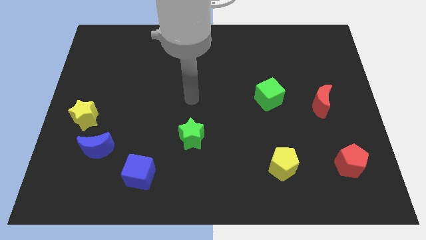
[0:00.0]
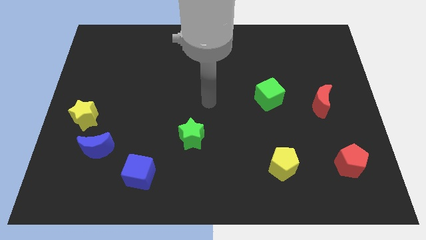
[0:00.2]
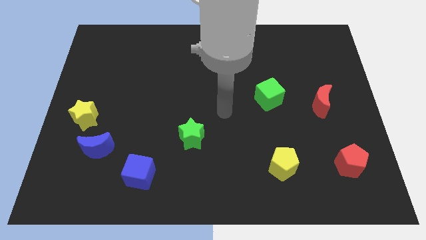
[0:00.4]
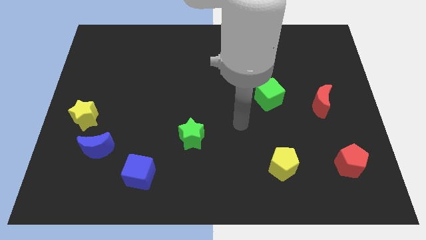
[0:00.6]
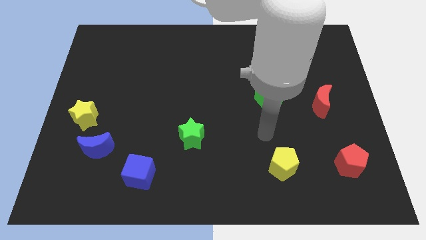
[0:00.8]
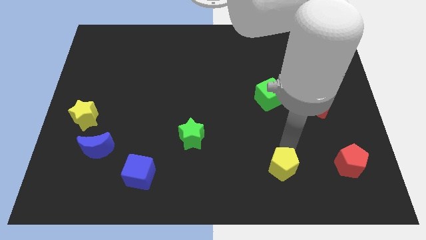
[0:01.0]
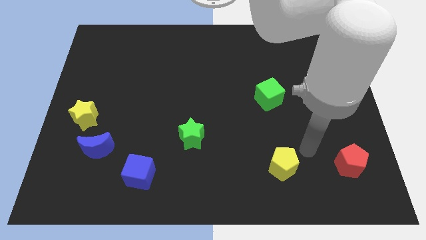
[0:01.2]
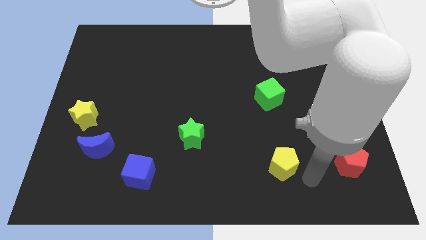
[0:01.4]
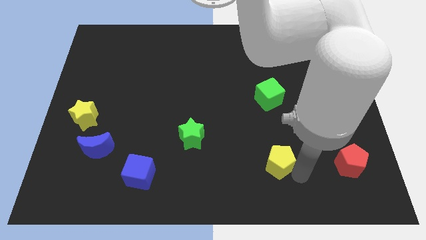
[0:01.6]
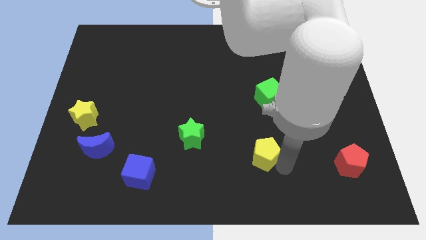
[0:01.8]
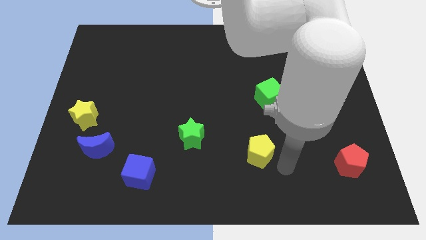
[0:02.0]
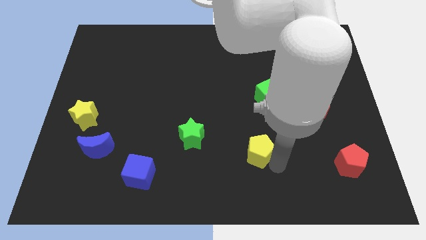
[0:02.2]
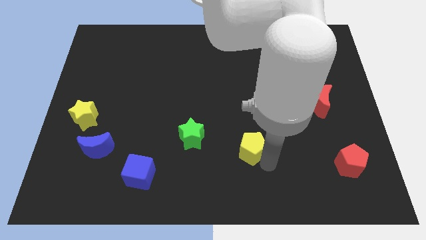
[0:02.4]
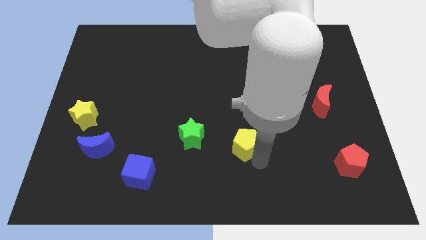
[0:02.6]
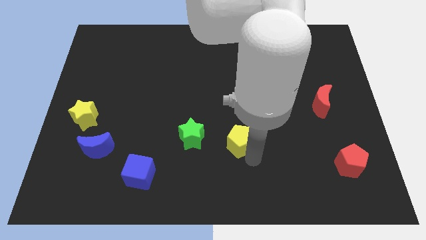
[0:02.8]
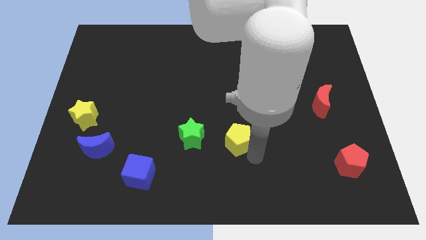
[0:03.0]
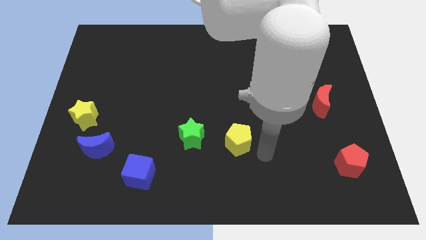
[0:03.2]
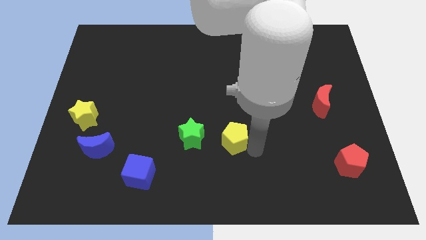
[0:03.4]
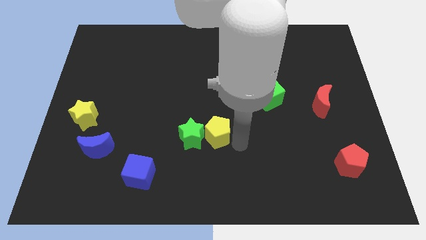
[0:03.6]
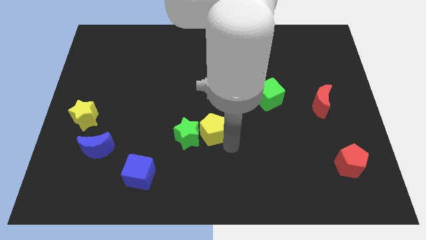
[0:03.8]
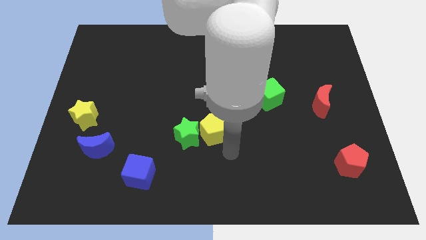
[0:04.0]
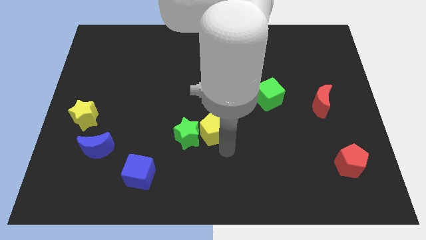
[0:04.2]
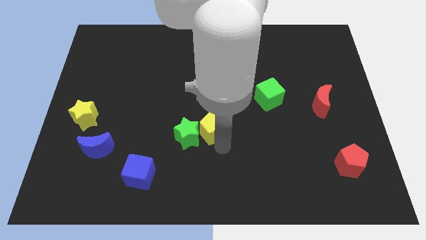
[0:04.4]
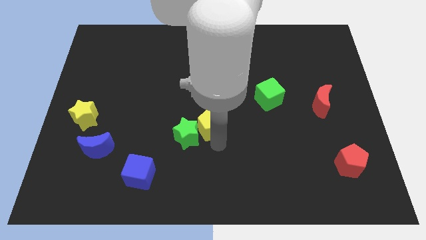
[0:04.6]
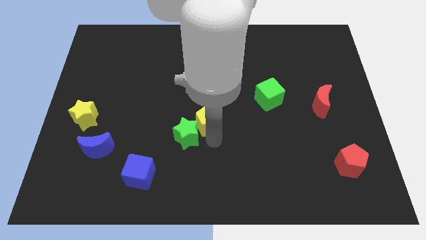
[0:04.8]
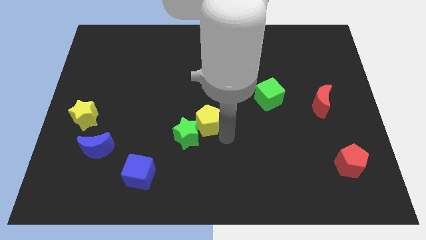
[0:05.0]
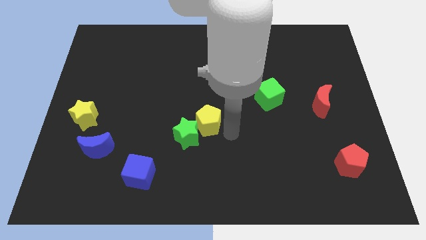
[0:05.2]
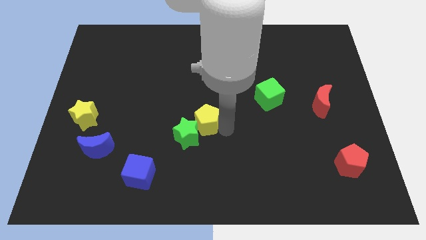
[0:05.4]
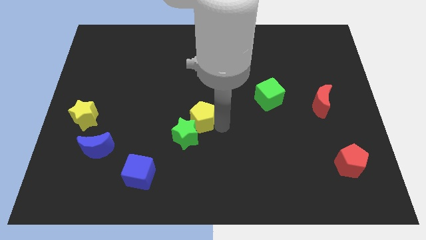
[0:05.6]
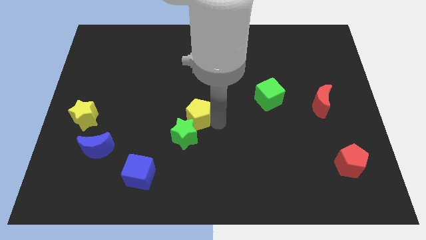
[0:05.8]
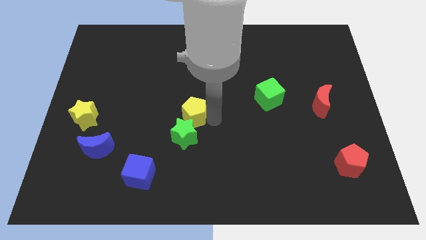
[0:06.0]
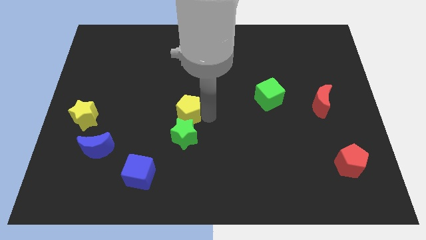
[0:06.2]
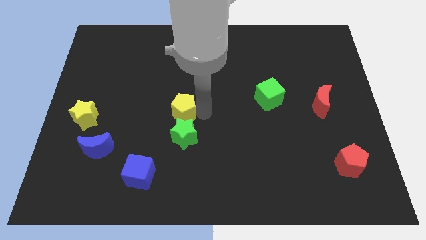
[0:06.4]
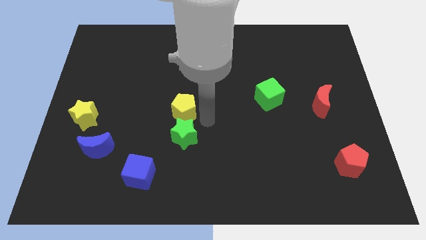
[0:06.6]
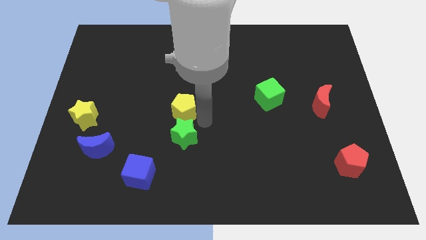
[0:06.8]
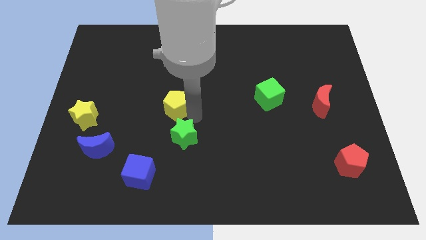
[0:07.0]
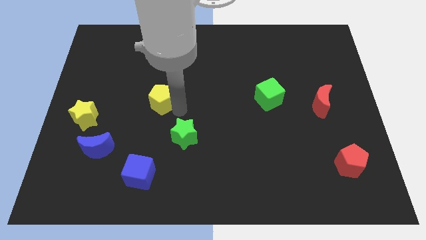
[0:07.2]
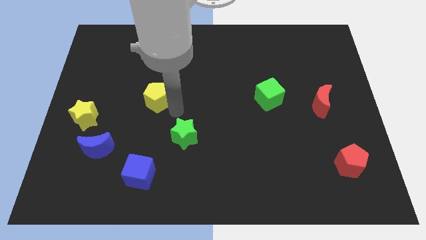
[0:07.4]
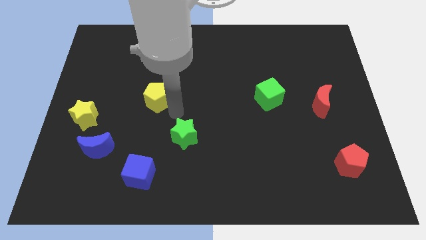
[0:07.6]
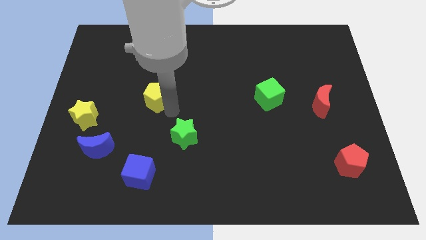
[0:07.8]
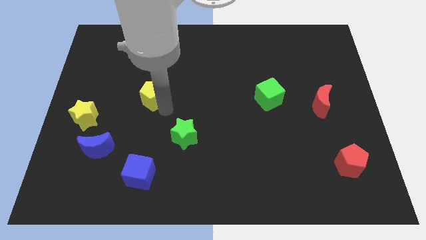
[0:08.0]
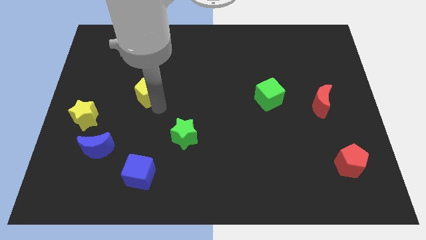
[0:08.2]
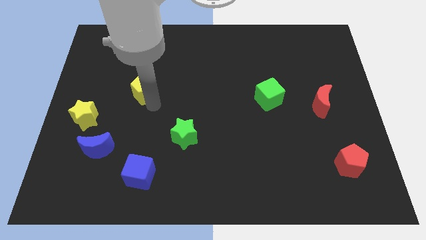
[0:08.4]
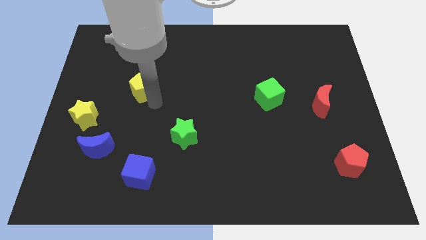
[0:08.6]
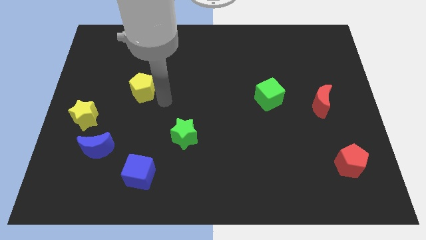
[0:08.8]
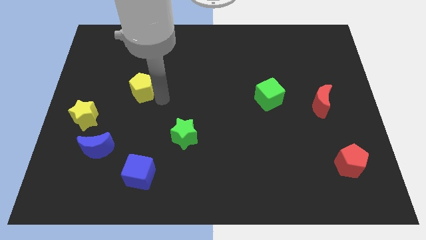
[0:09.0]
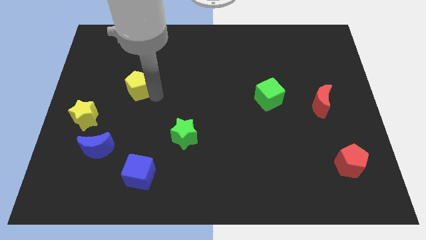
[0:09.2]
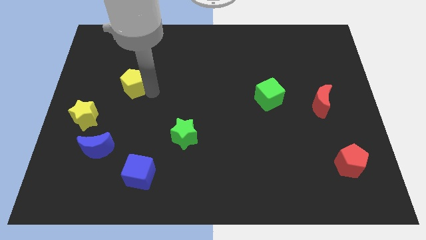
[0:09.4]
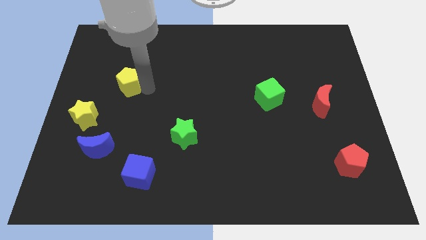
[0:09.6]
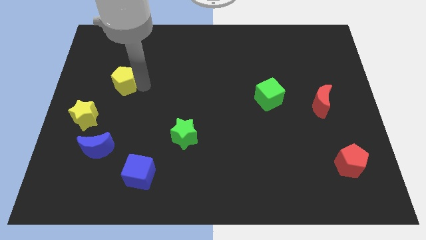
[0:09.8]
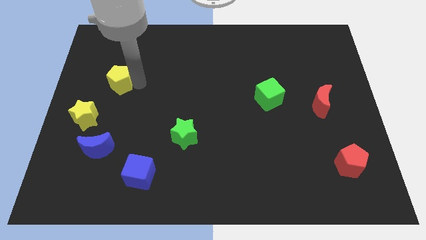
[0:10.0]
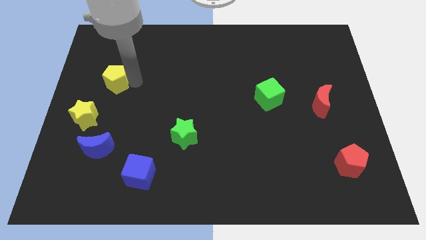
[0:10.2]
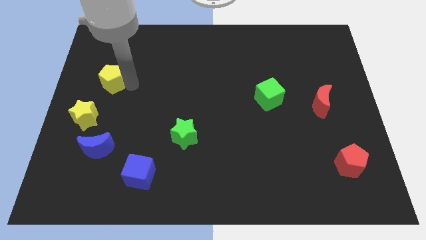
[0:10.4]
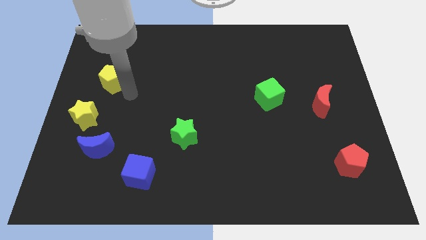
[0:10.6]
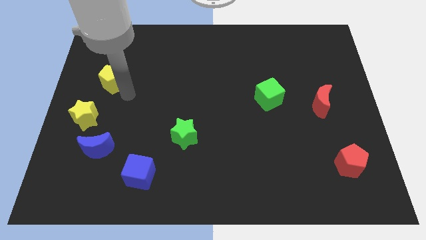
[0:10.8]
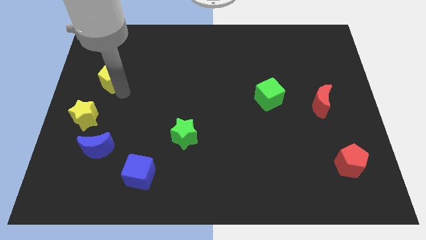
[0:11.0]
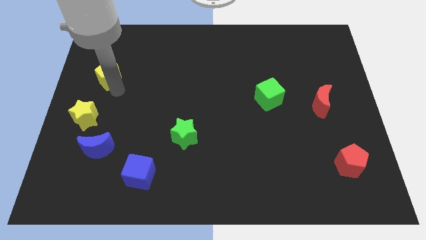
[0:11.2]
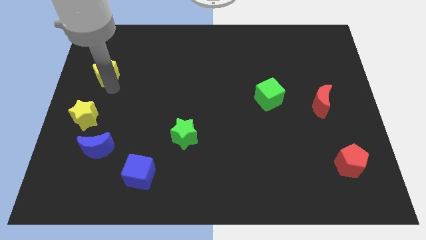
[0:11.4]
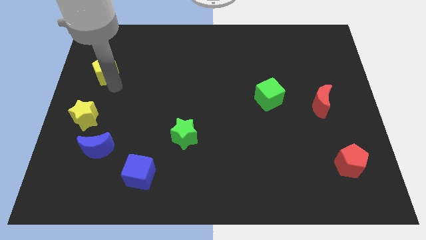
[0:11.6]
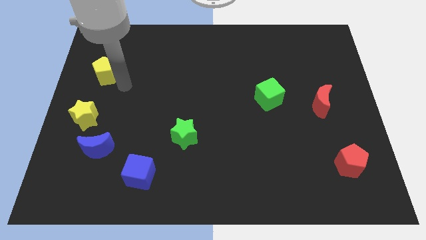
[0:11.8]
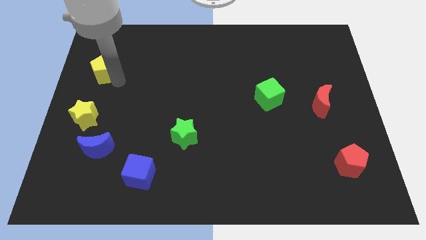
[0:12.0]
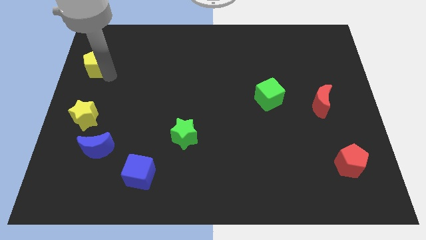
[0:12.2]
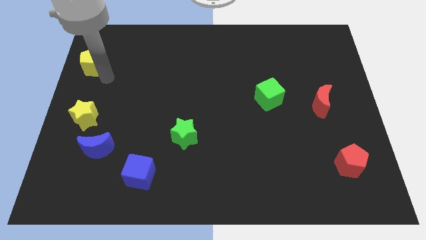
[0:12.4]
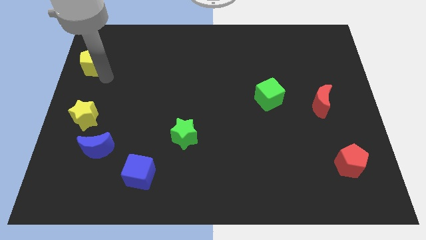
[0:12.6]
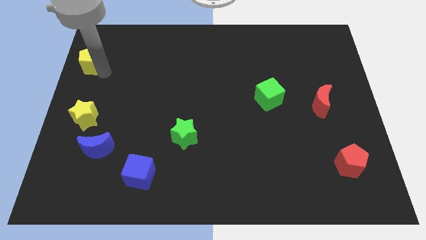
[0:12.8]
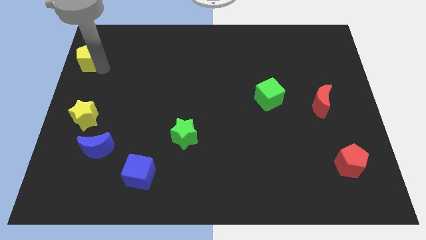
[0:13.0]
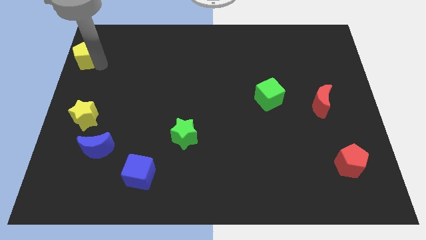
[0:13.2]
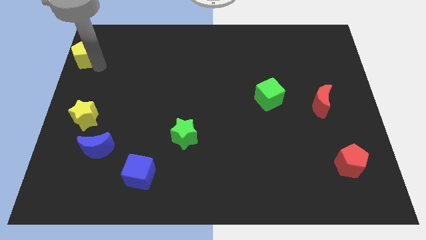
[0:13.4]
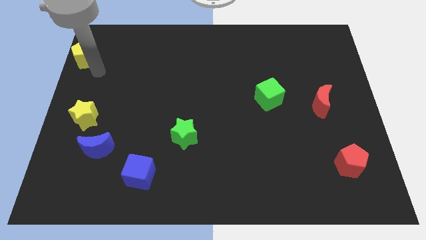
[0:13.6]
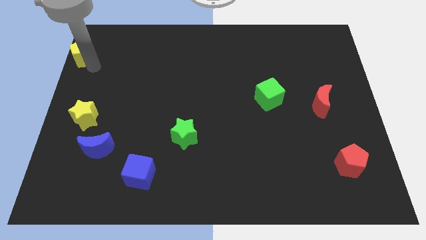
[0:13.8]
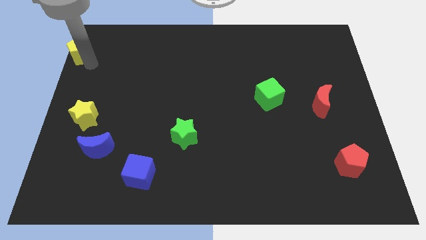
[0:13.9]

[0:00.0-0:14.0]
slide the yellow pentagon to the top left of the board
